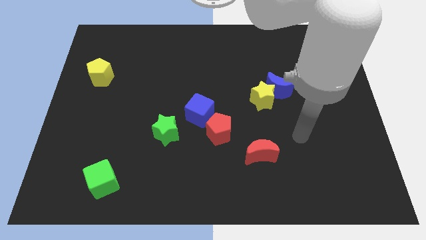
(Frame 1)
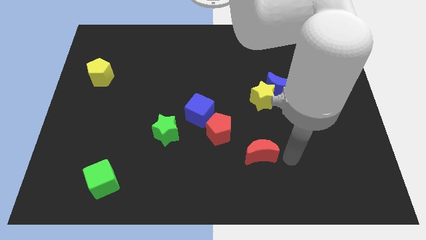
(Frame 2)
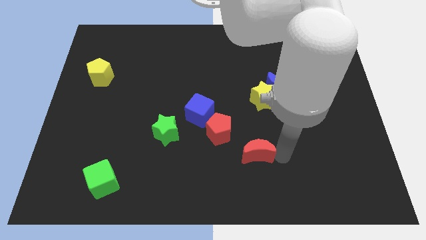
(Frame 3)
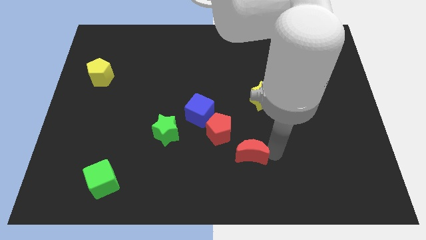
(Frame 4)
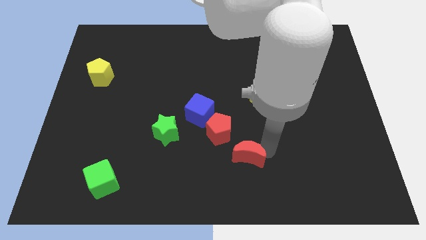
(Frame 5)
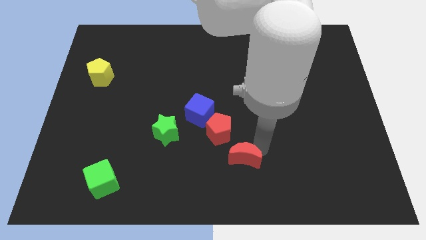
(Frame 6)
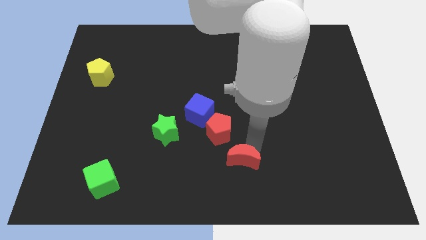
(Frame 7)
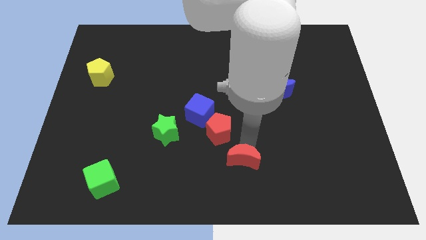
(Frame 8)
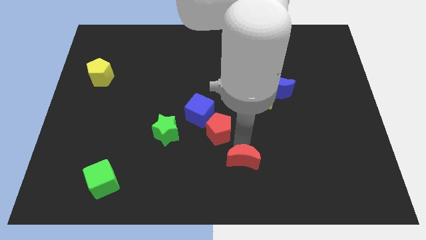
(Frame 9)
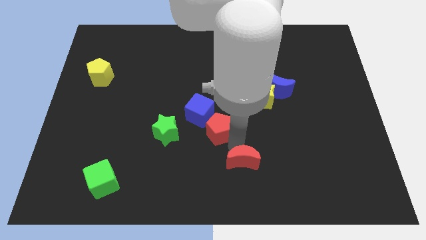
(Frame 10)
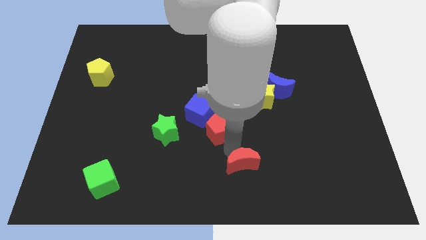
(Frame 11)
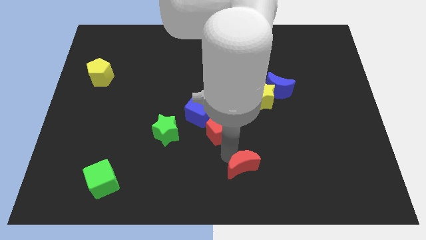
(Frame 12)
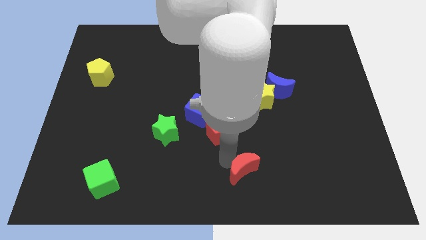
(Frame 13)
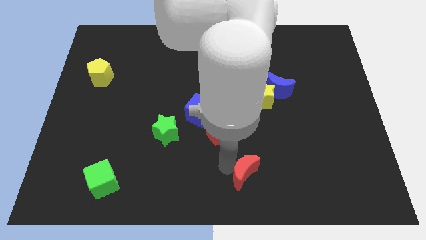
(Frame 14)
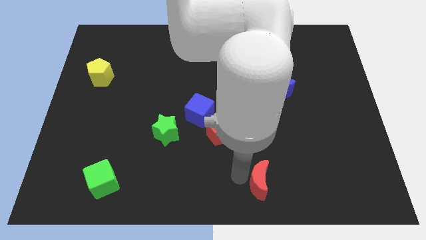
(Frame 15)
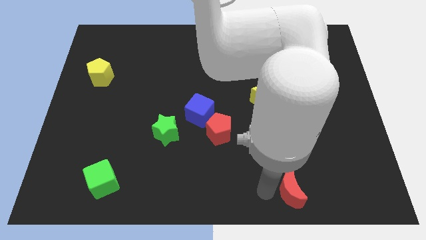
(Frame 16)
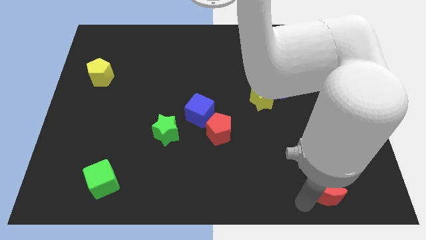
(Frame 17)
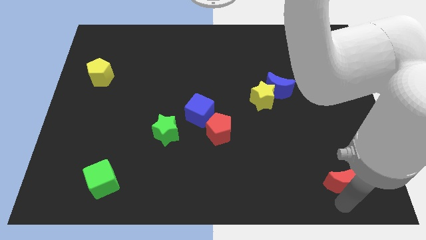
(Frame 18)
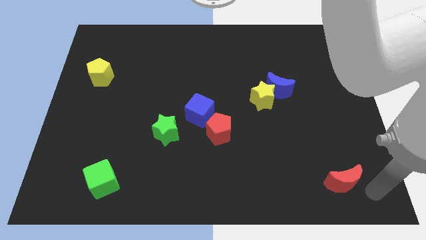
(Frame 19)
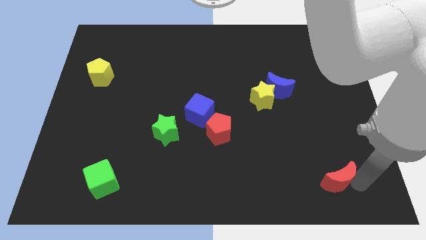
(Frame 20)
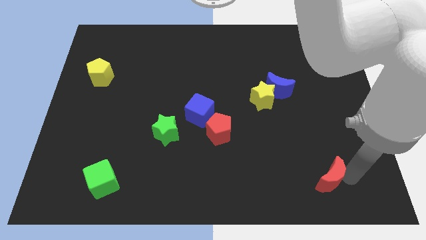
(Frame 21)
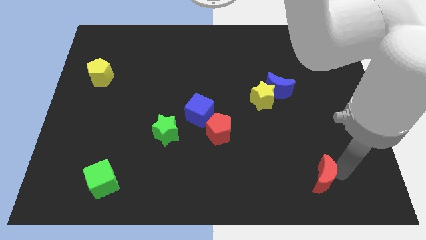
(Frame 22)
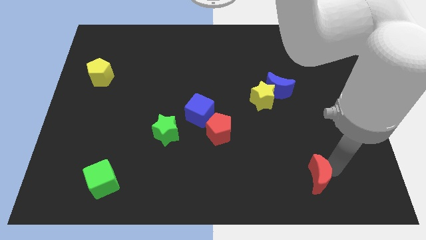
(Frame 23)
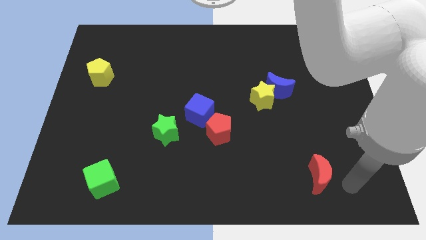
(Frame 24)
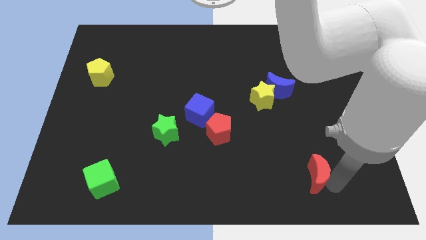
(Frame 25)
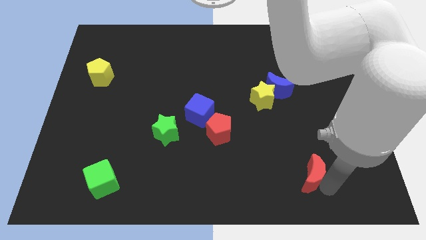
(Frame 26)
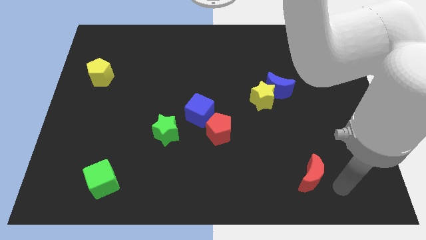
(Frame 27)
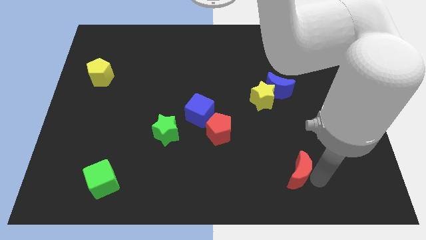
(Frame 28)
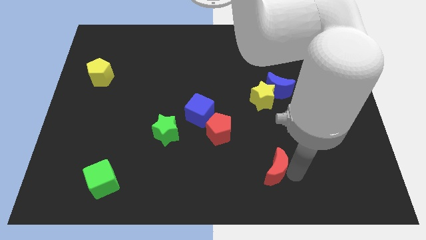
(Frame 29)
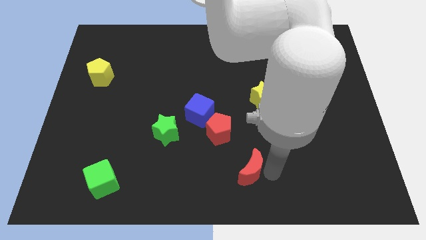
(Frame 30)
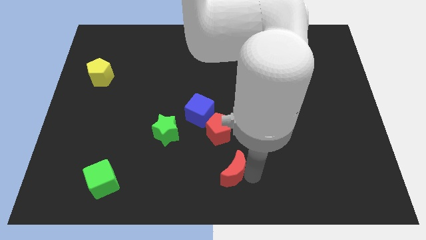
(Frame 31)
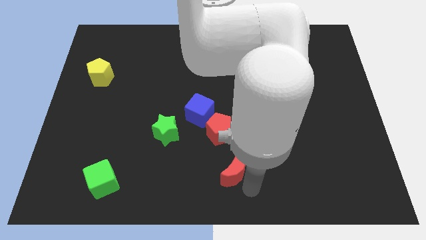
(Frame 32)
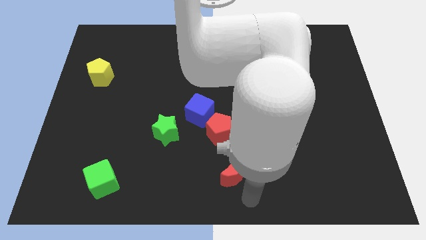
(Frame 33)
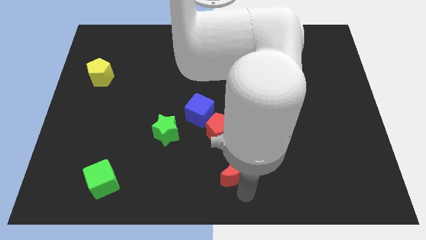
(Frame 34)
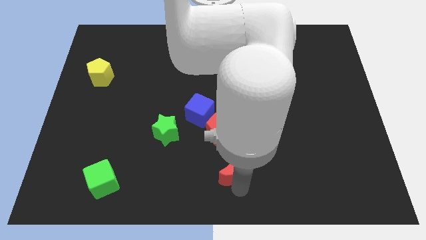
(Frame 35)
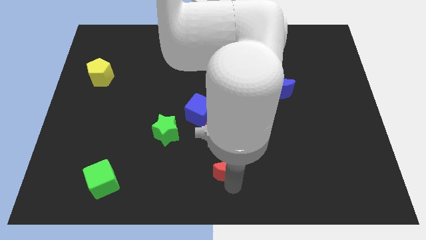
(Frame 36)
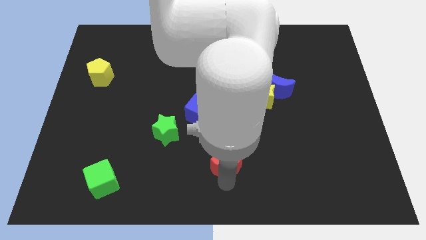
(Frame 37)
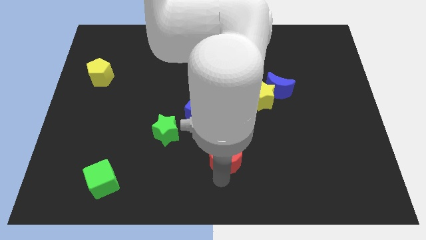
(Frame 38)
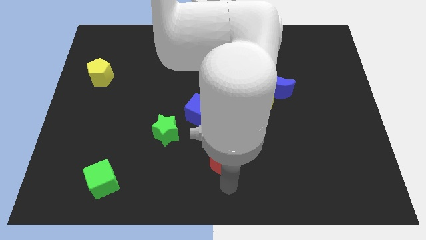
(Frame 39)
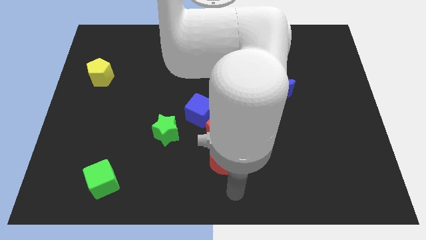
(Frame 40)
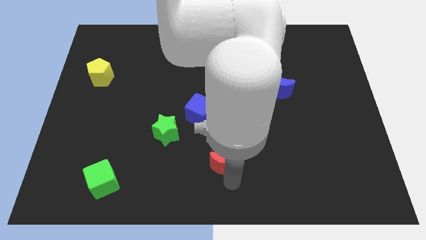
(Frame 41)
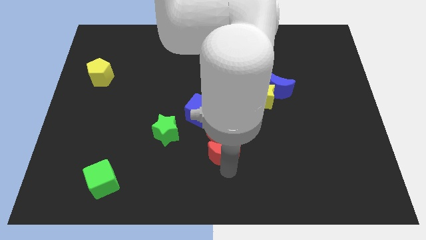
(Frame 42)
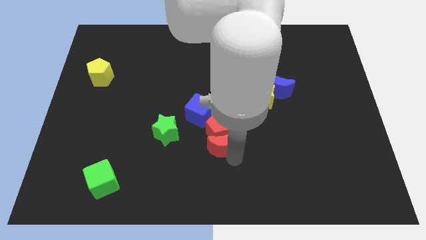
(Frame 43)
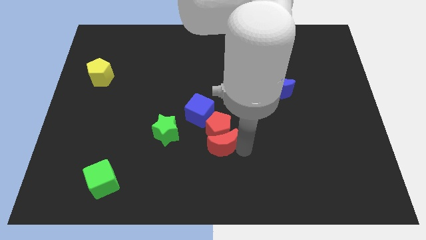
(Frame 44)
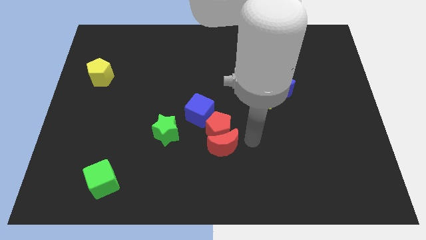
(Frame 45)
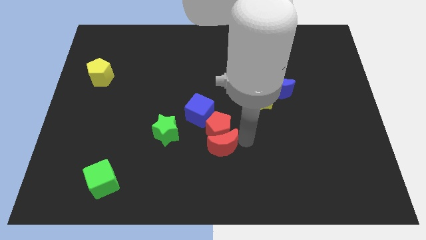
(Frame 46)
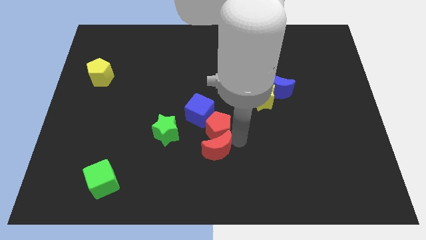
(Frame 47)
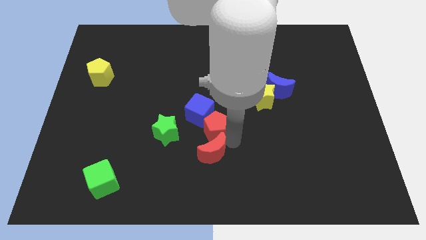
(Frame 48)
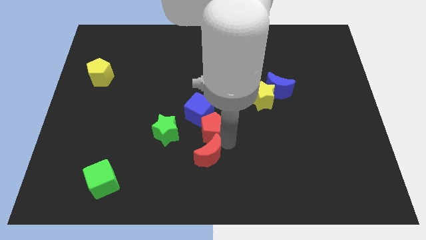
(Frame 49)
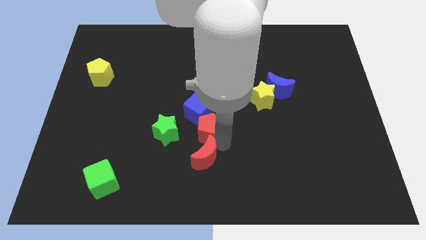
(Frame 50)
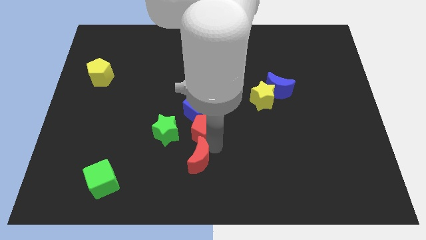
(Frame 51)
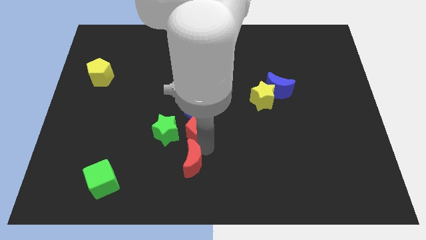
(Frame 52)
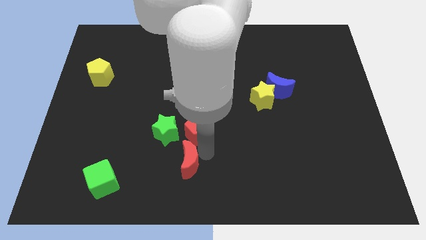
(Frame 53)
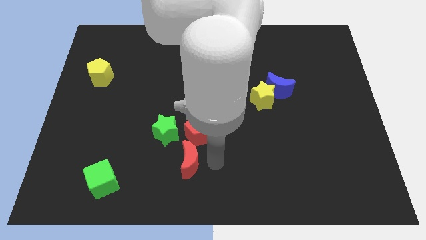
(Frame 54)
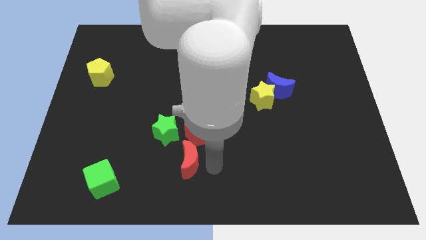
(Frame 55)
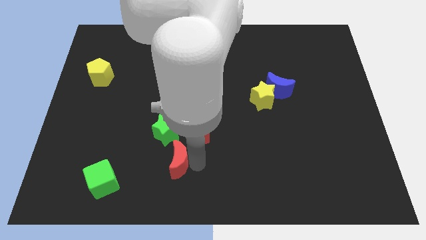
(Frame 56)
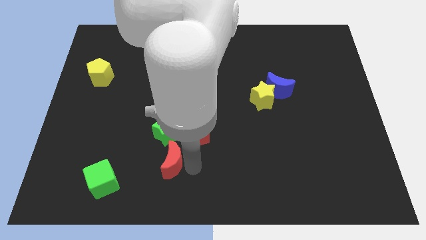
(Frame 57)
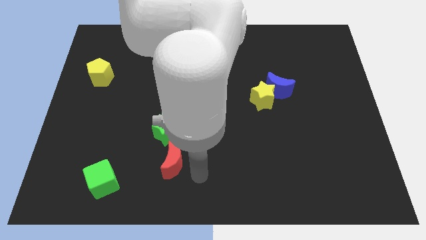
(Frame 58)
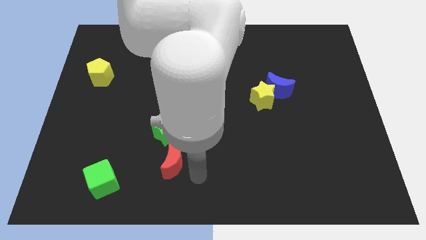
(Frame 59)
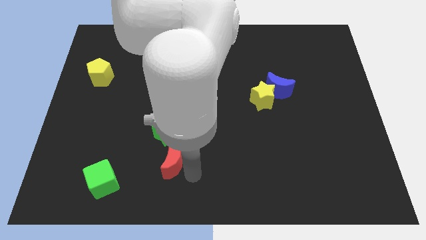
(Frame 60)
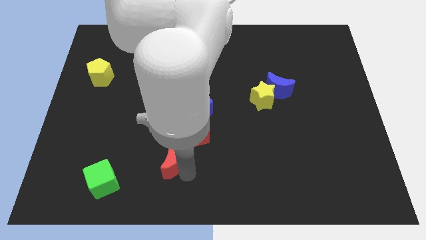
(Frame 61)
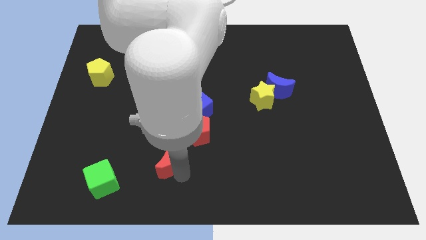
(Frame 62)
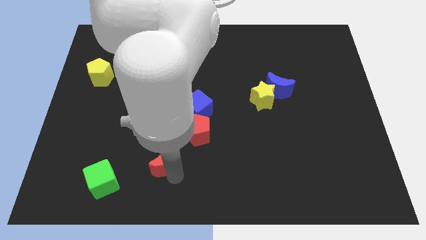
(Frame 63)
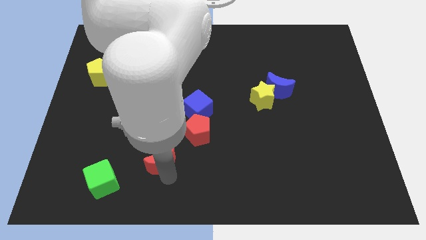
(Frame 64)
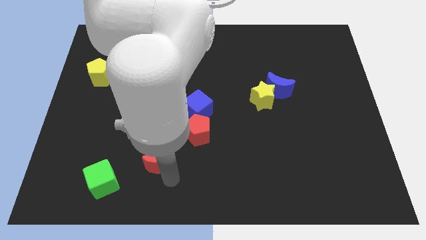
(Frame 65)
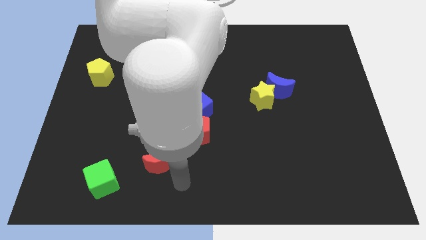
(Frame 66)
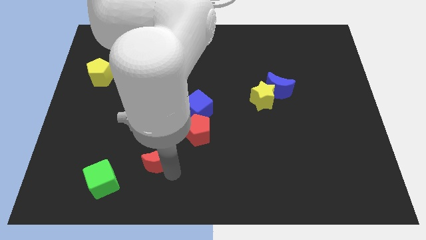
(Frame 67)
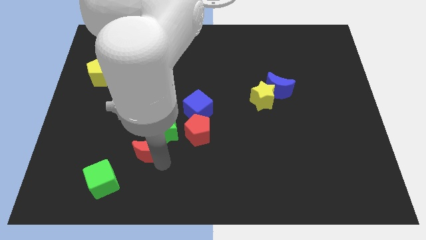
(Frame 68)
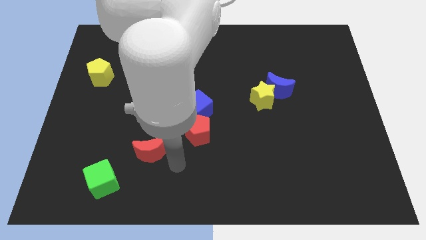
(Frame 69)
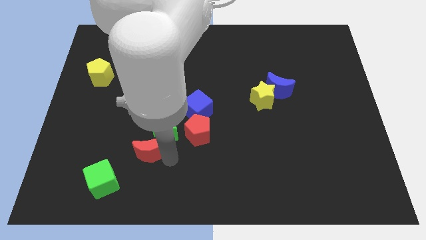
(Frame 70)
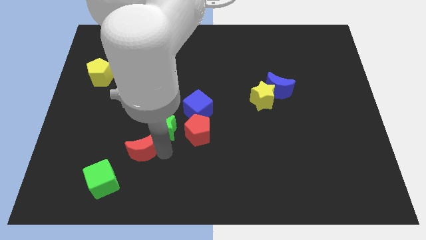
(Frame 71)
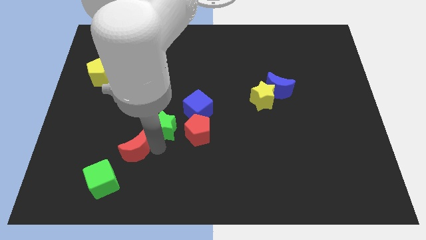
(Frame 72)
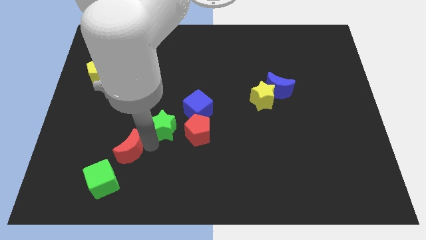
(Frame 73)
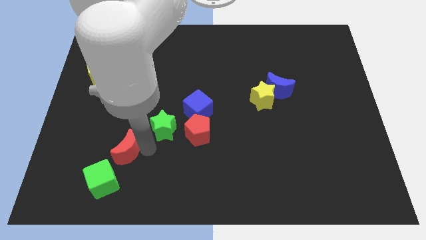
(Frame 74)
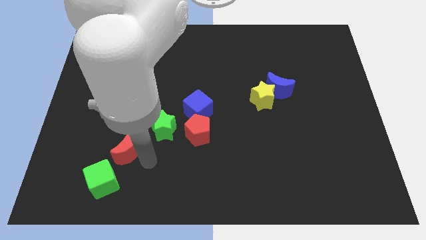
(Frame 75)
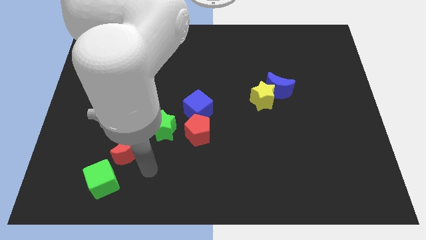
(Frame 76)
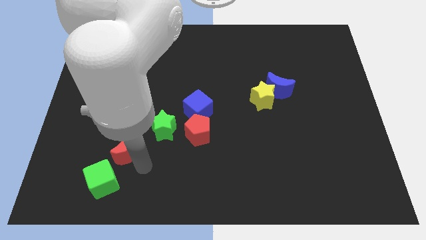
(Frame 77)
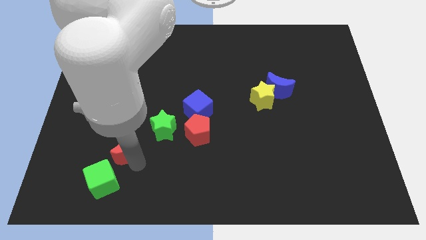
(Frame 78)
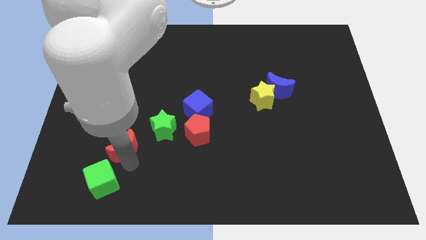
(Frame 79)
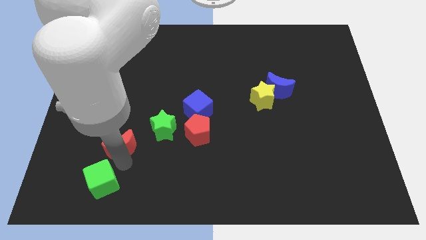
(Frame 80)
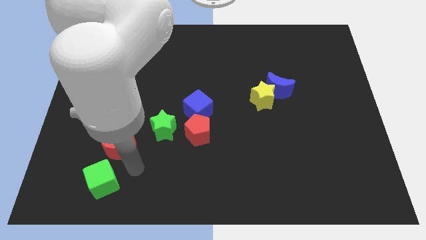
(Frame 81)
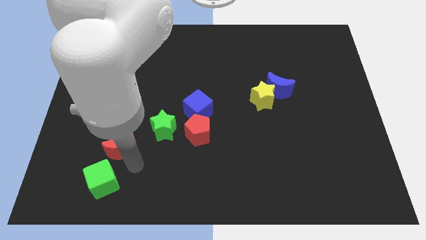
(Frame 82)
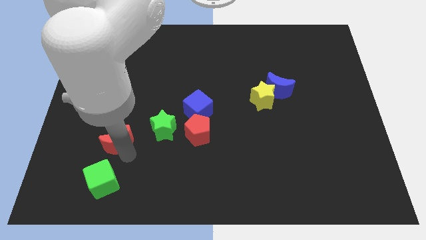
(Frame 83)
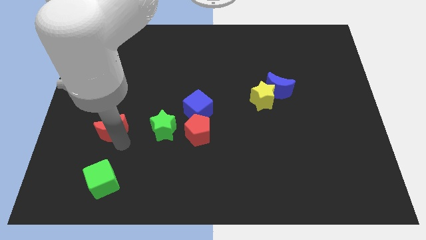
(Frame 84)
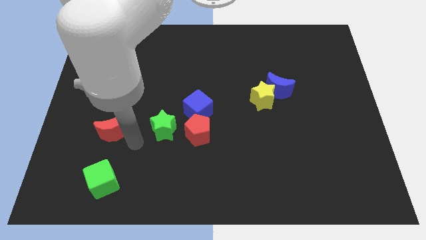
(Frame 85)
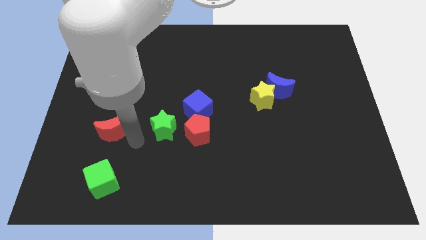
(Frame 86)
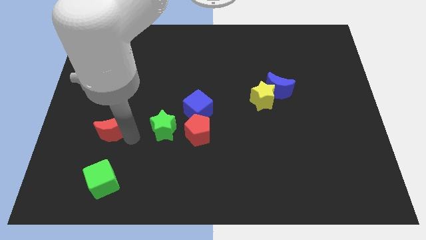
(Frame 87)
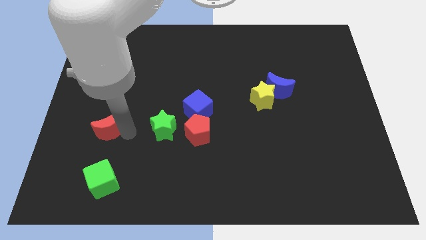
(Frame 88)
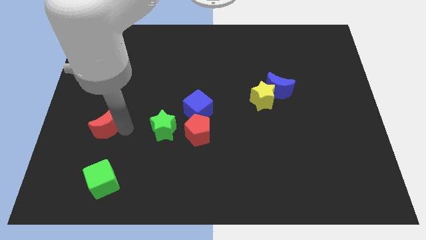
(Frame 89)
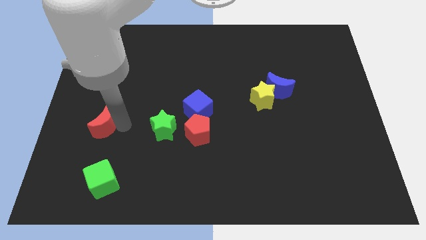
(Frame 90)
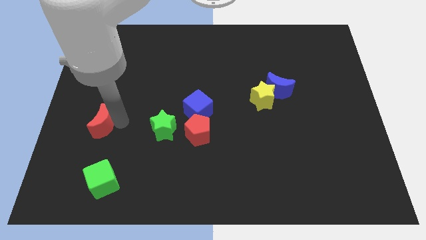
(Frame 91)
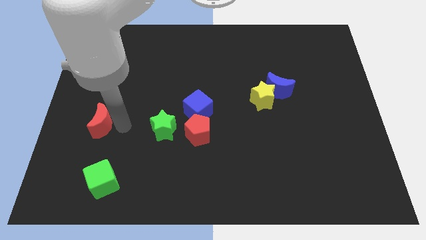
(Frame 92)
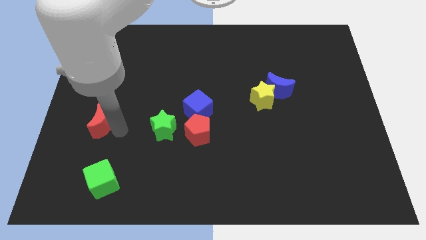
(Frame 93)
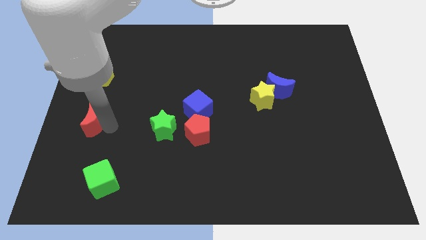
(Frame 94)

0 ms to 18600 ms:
put the red moon to the left side
